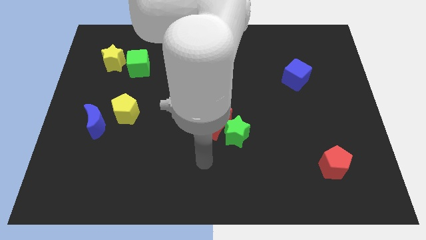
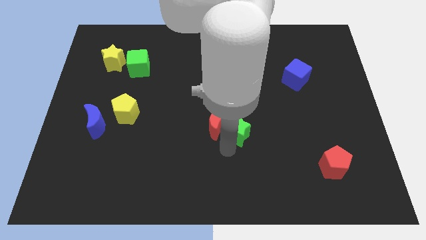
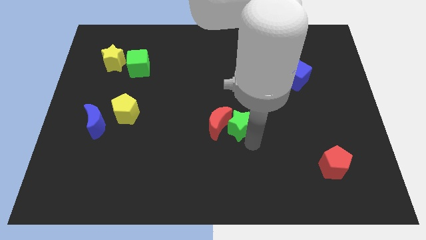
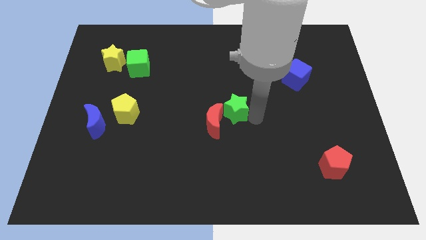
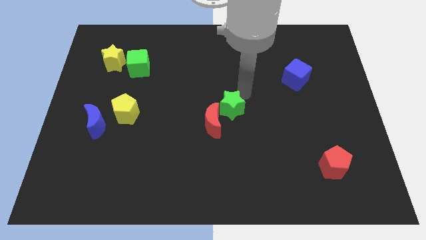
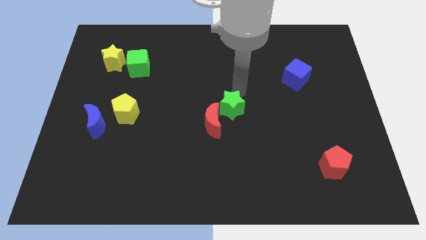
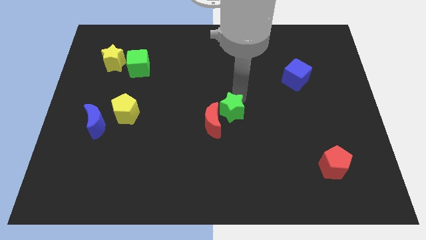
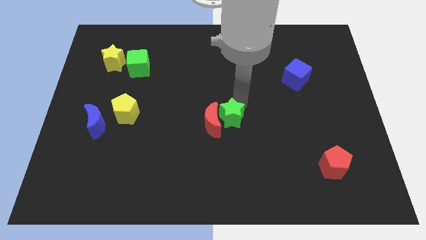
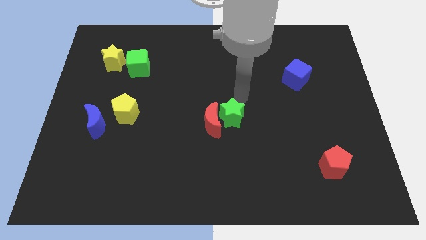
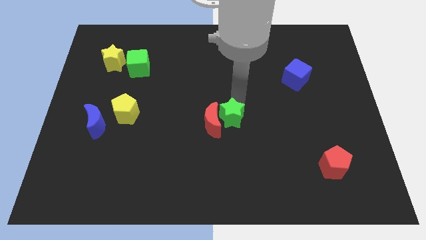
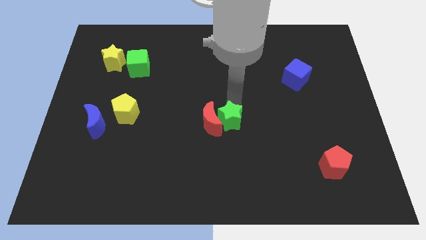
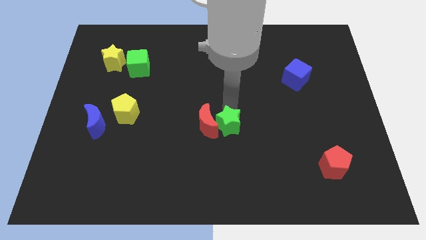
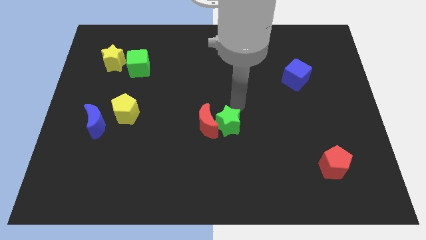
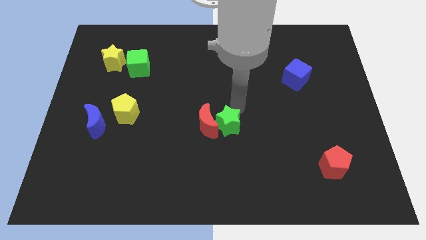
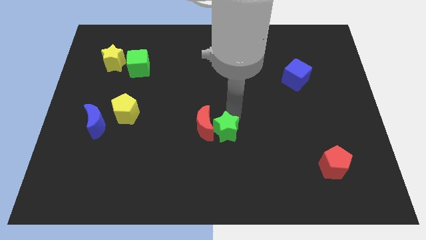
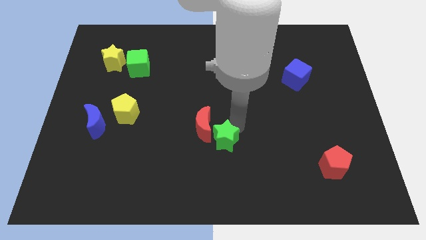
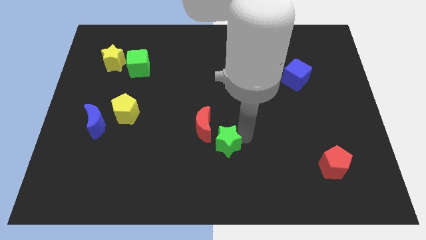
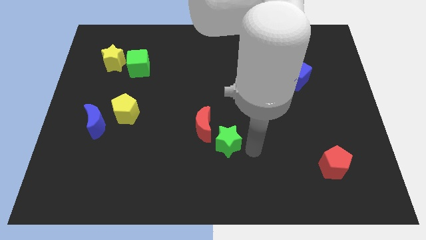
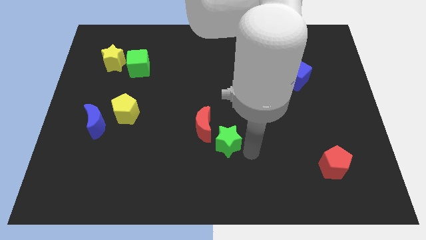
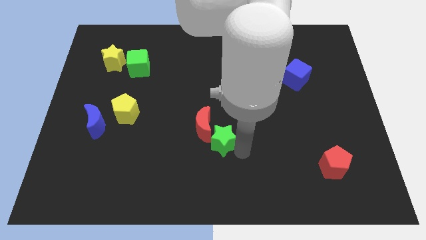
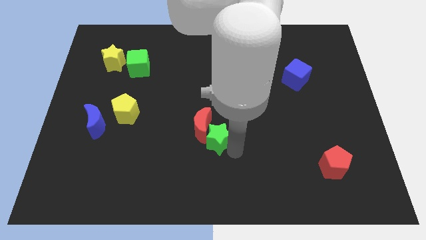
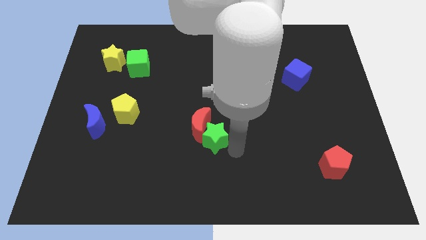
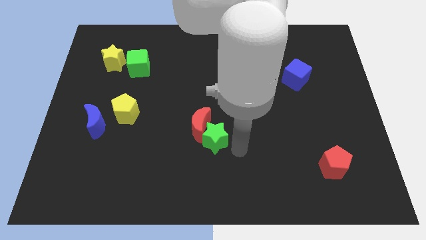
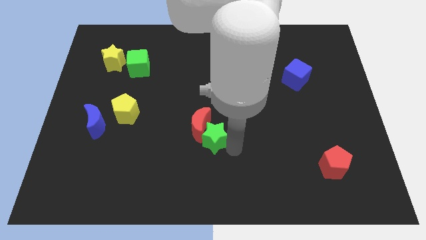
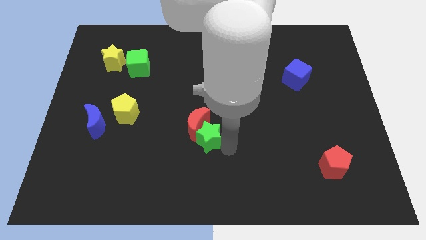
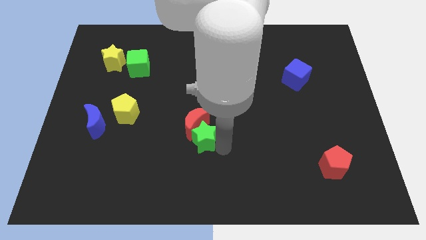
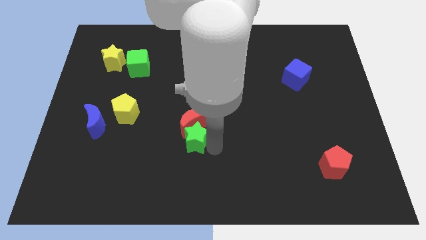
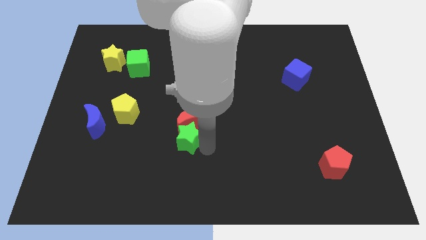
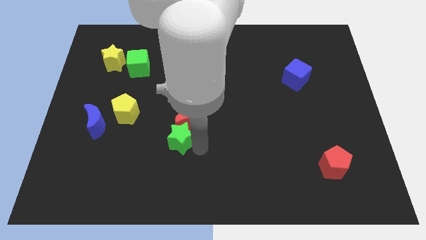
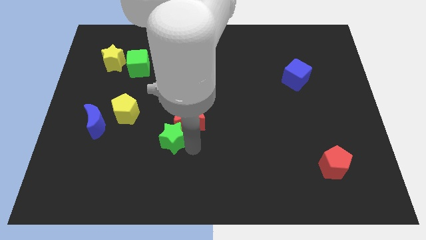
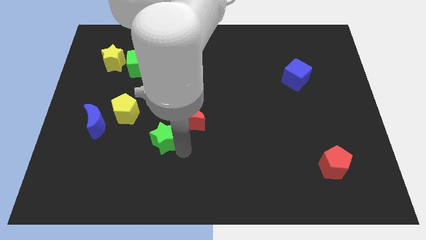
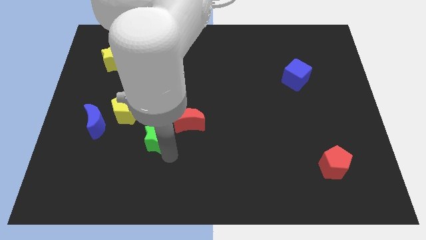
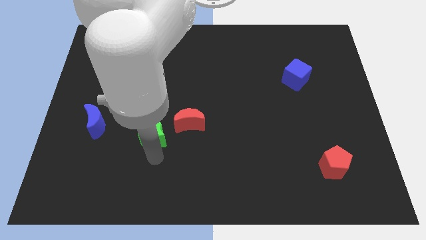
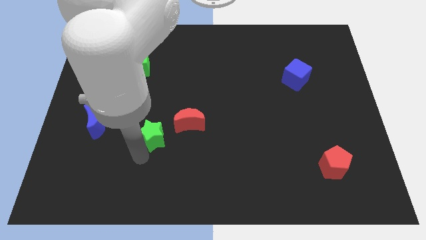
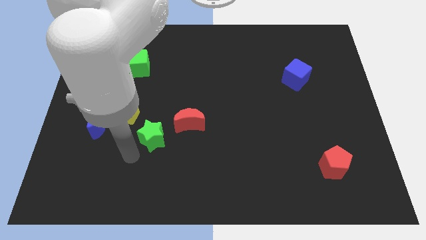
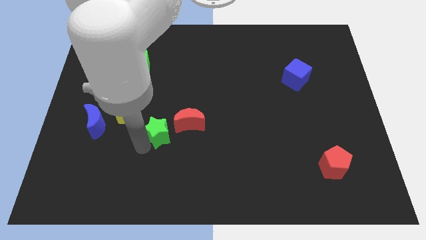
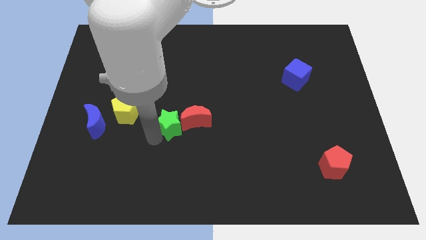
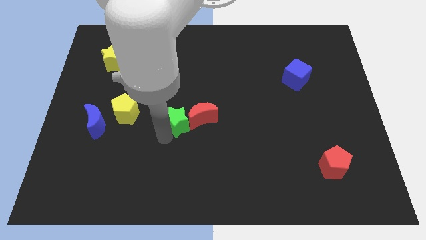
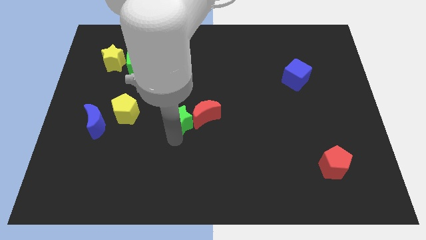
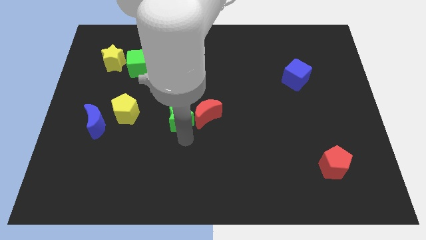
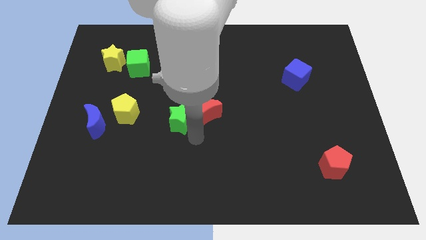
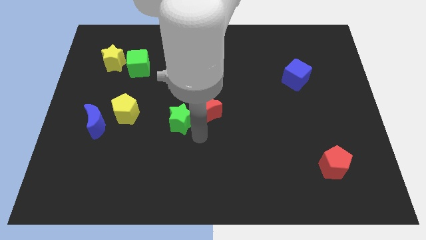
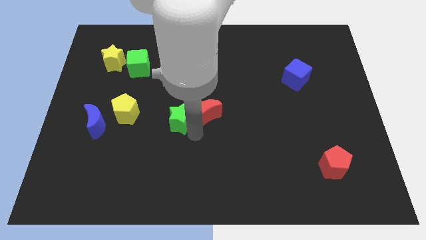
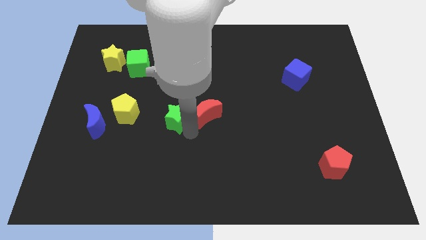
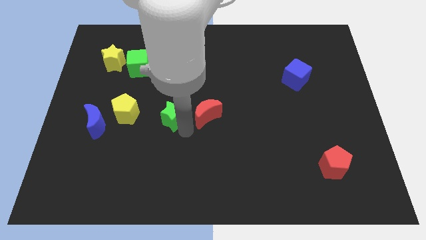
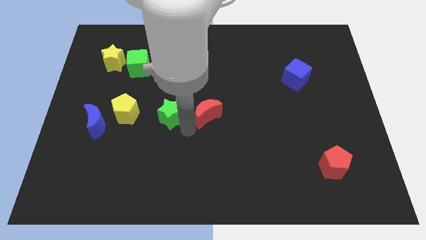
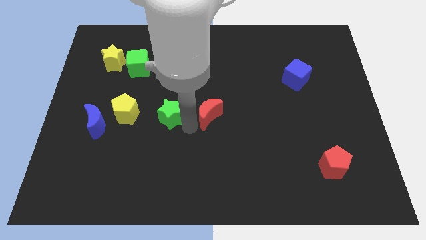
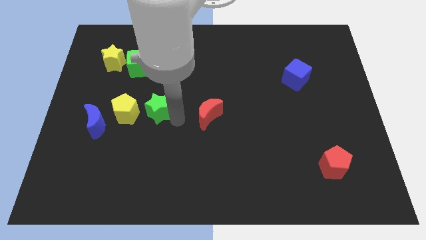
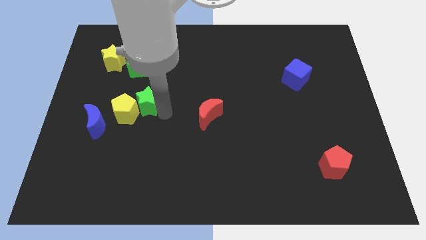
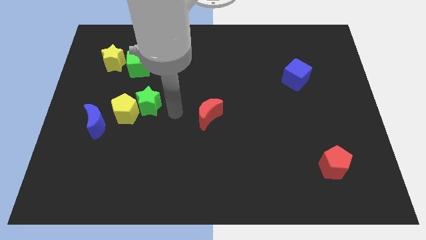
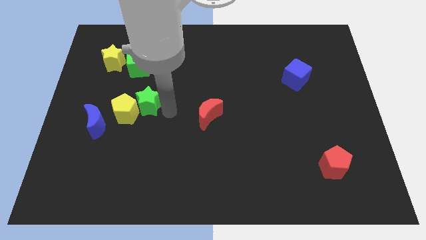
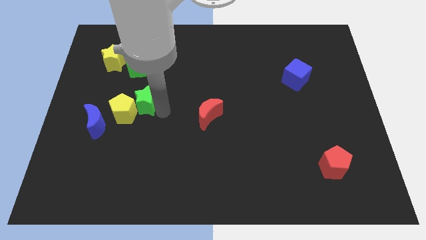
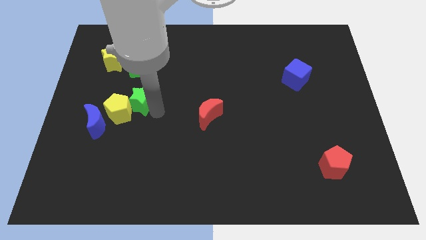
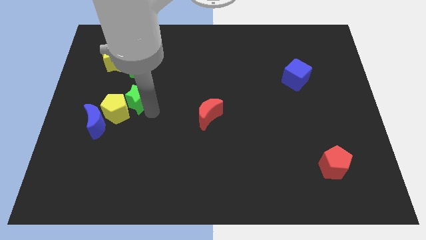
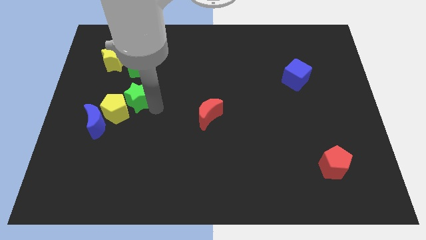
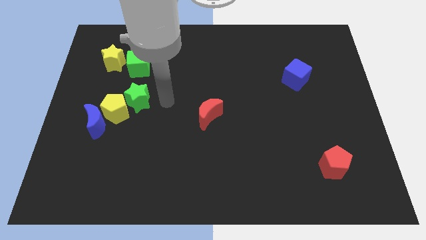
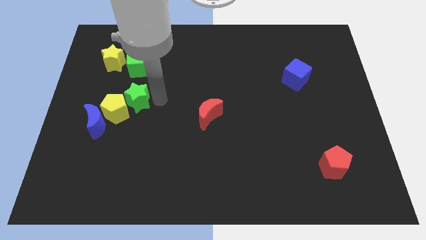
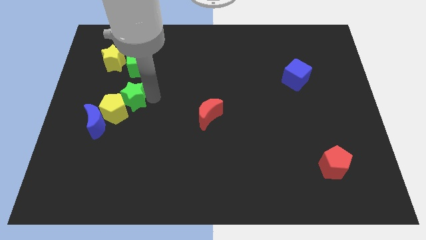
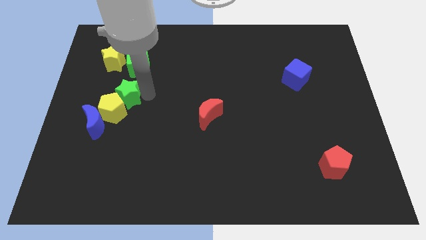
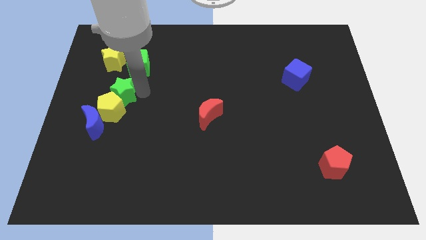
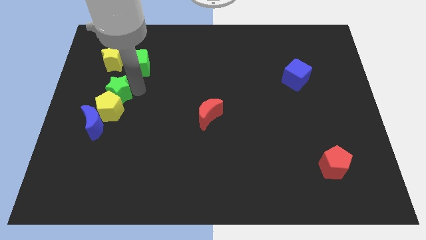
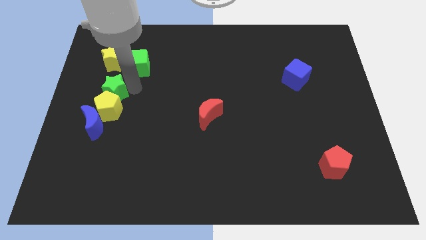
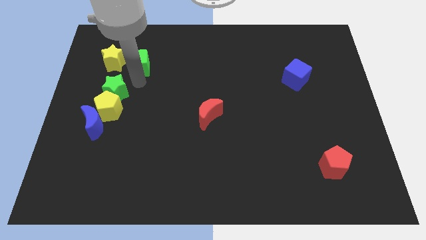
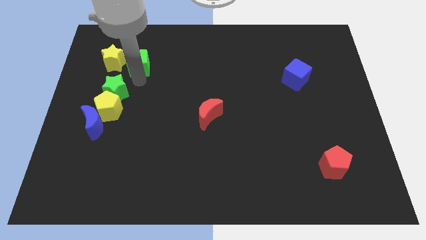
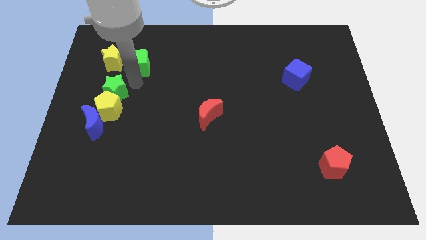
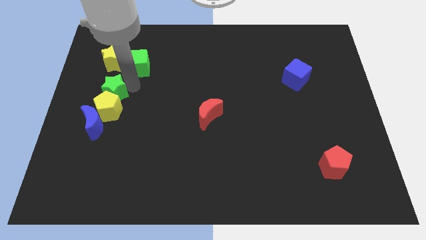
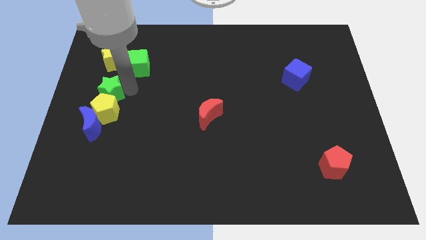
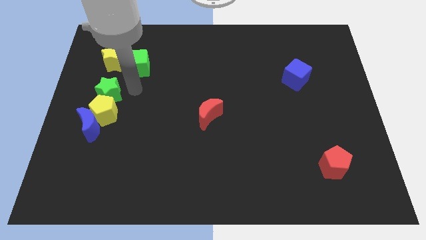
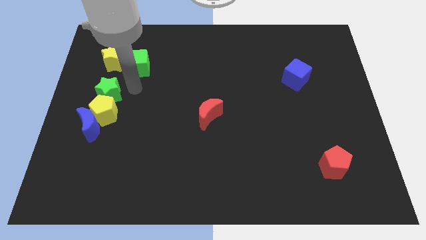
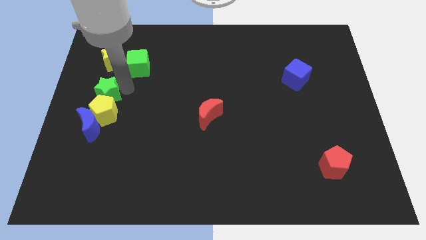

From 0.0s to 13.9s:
push the green star to the left side

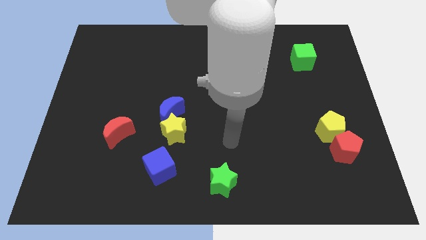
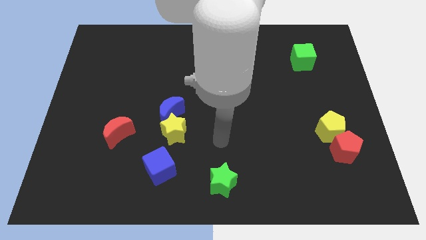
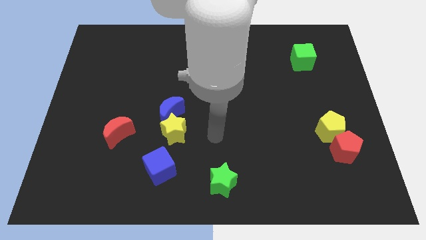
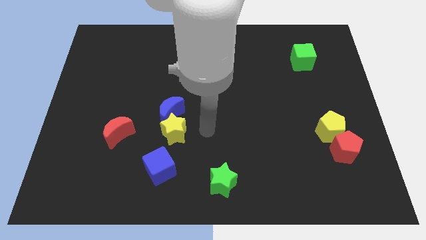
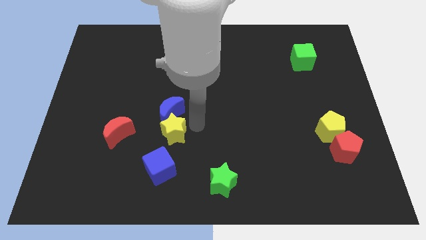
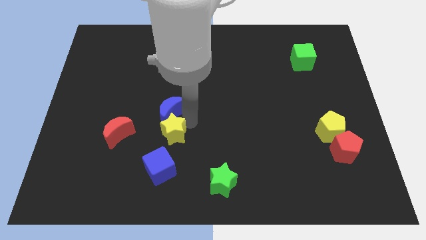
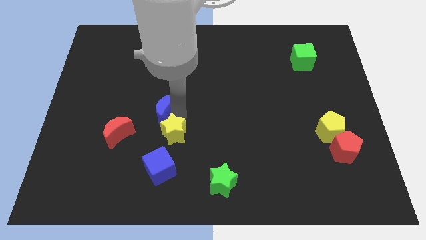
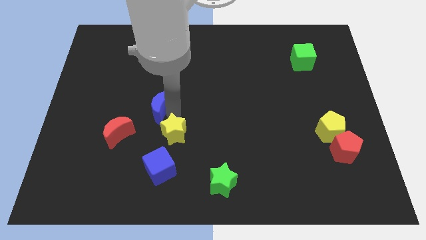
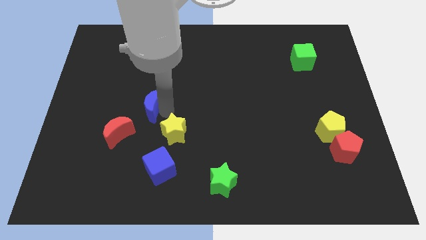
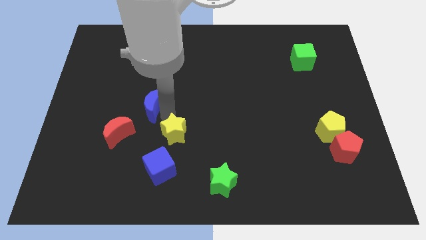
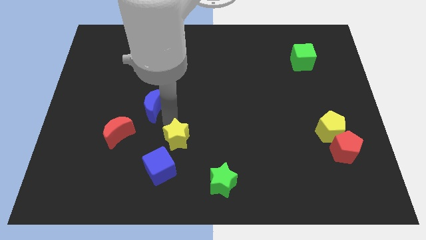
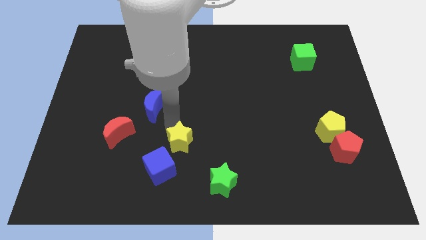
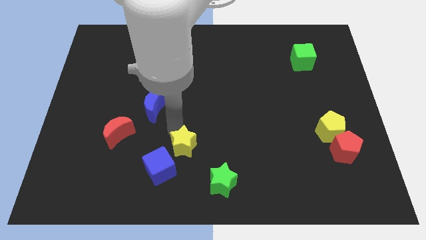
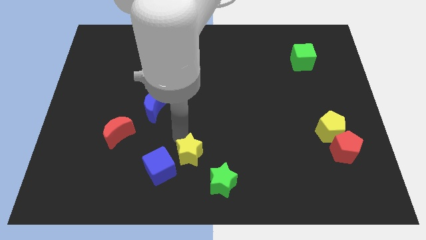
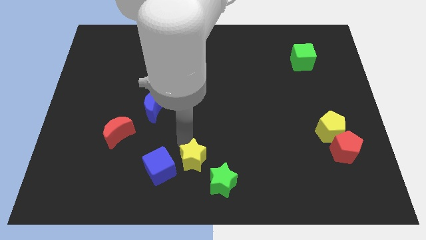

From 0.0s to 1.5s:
slide the yellow star to the bottom side
